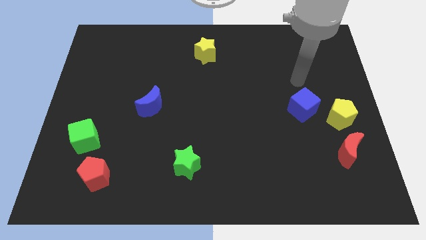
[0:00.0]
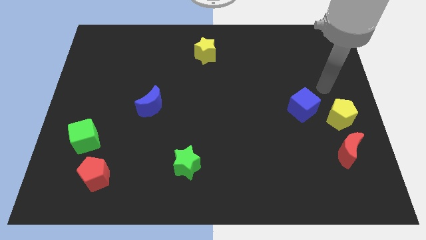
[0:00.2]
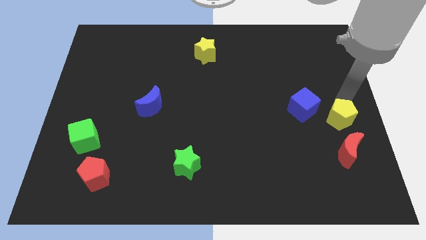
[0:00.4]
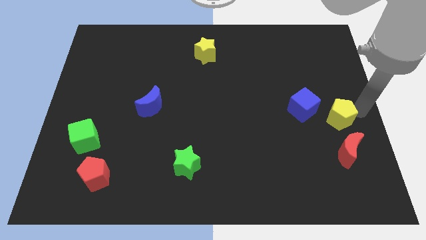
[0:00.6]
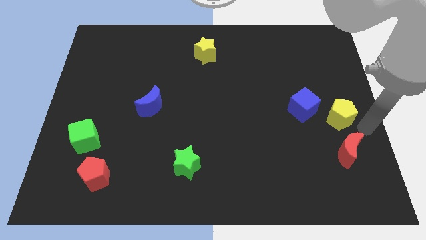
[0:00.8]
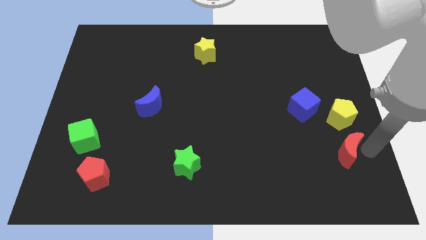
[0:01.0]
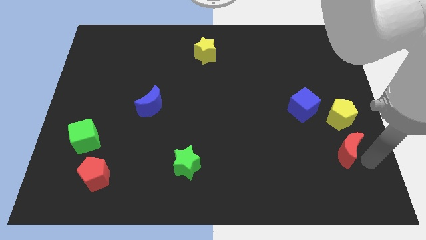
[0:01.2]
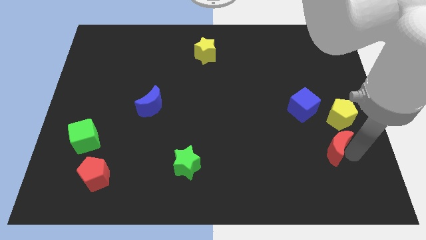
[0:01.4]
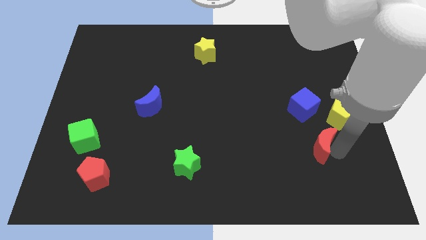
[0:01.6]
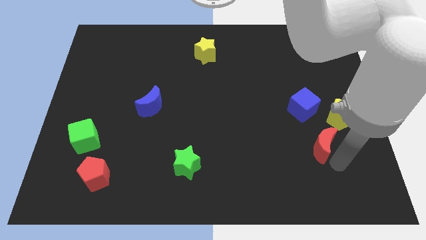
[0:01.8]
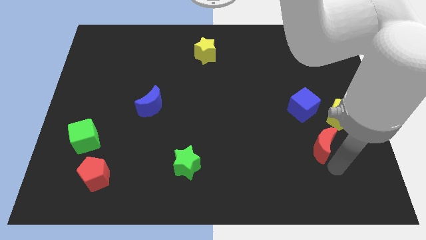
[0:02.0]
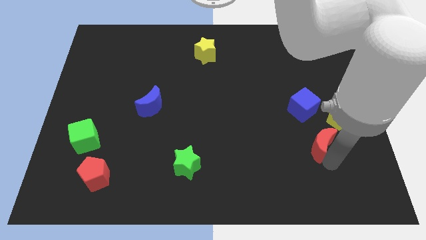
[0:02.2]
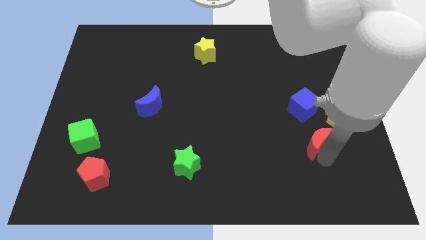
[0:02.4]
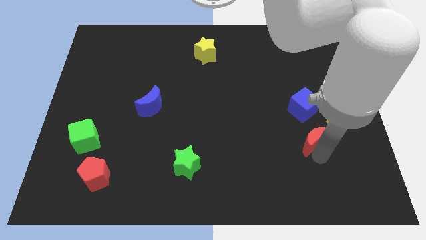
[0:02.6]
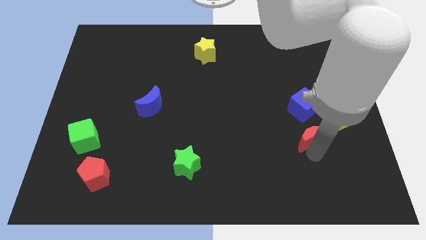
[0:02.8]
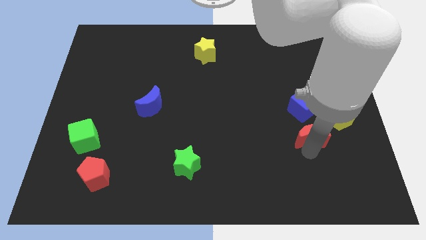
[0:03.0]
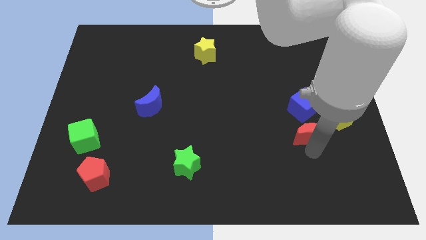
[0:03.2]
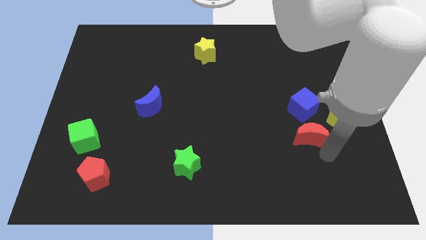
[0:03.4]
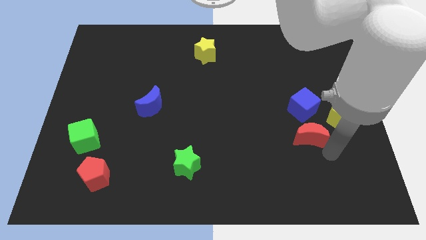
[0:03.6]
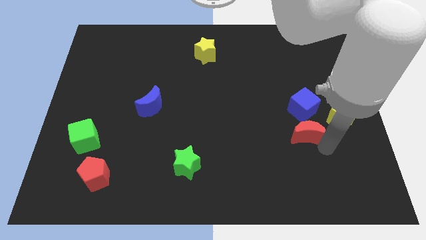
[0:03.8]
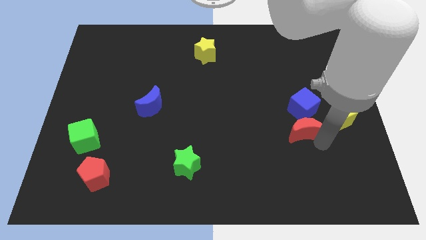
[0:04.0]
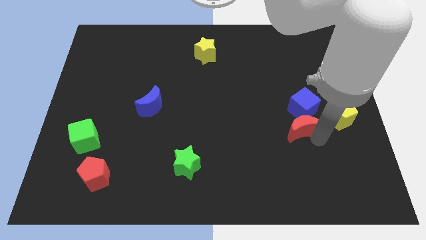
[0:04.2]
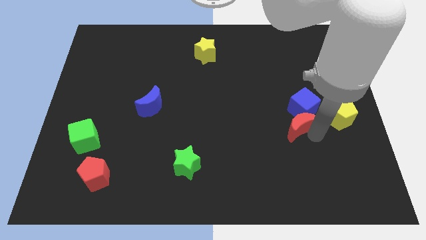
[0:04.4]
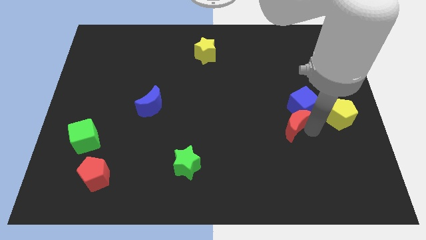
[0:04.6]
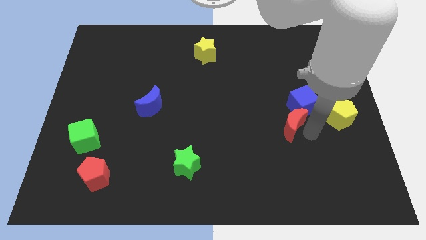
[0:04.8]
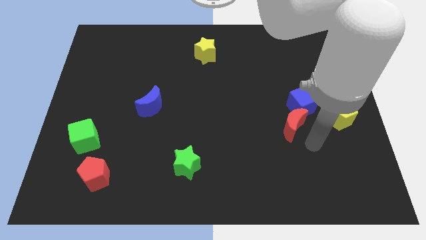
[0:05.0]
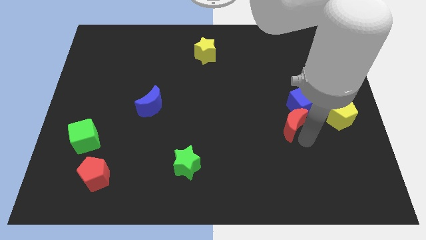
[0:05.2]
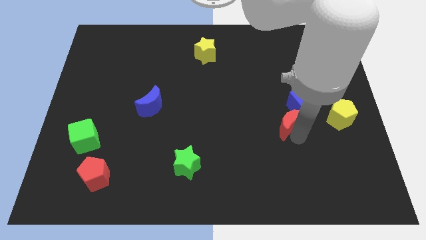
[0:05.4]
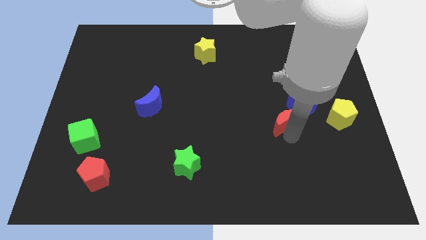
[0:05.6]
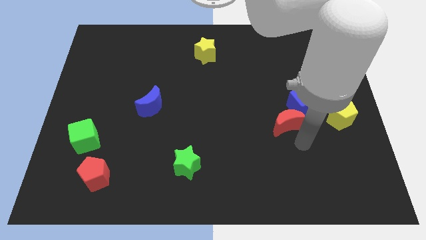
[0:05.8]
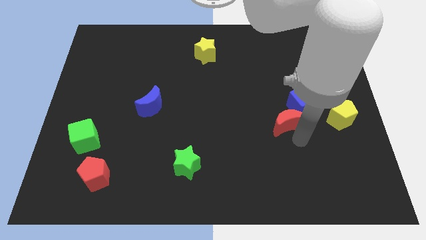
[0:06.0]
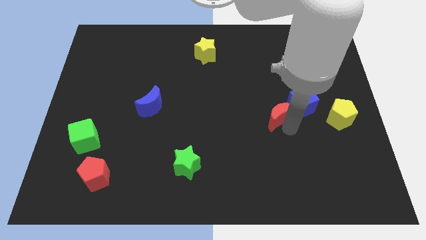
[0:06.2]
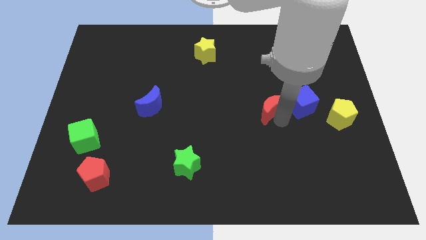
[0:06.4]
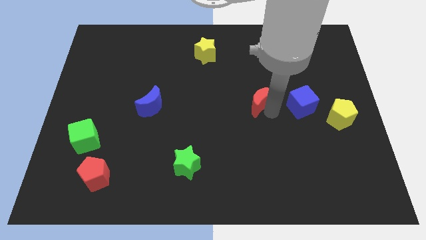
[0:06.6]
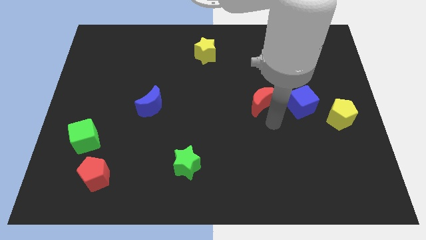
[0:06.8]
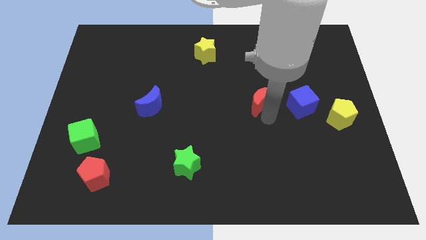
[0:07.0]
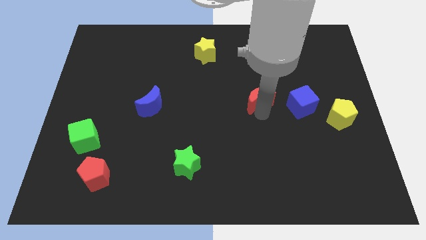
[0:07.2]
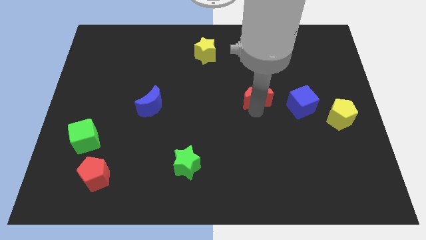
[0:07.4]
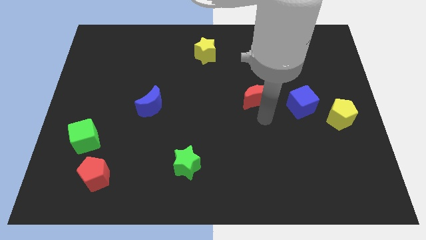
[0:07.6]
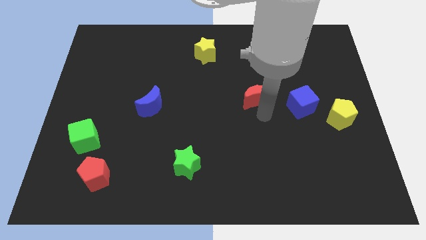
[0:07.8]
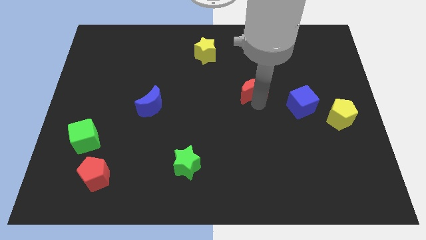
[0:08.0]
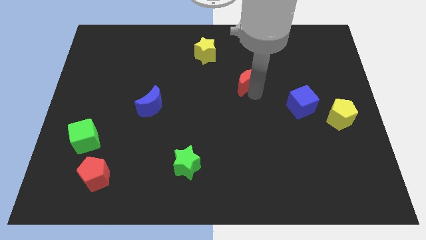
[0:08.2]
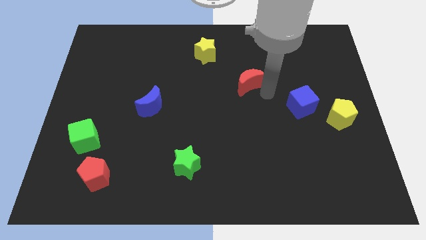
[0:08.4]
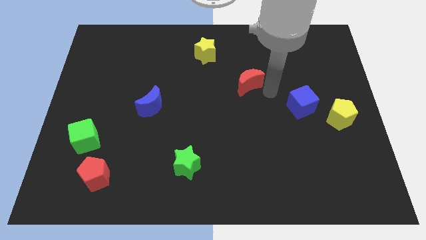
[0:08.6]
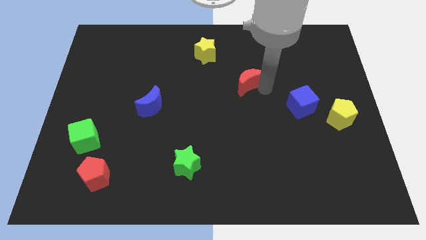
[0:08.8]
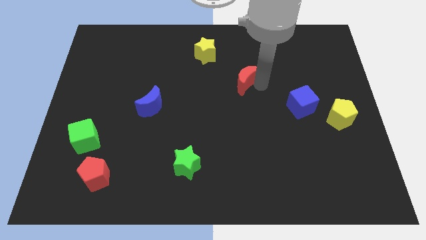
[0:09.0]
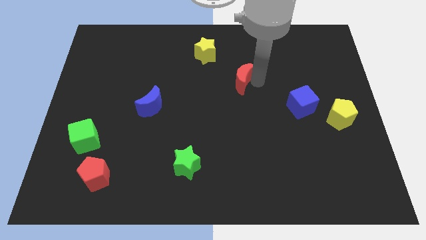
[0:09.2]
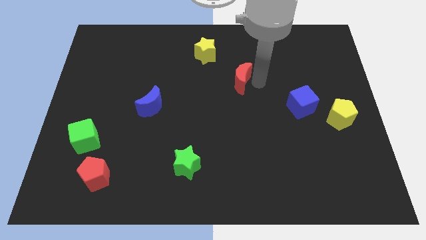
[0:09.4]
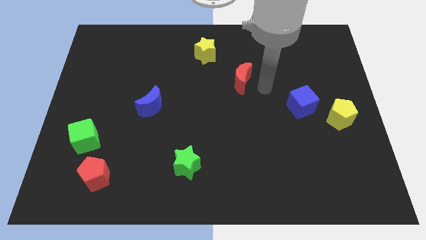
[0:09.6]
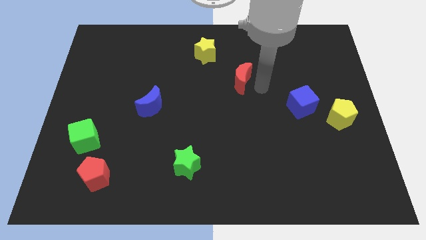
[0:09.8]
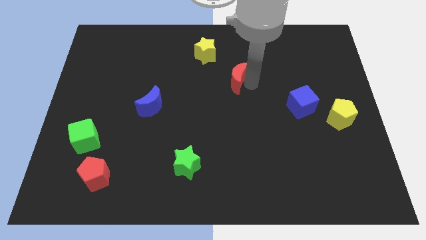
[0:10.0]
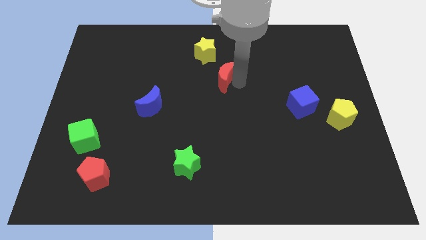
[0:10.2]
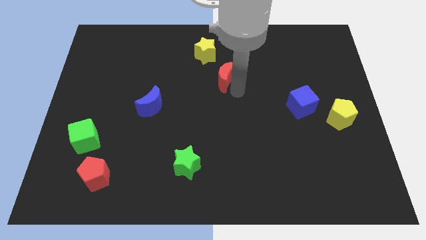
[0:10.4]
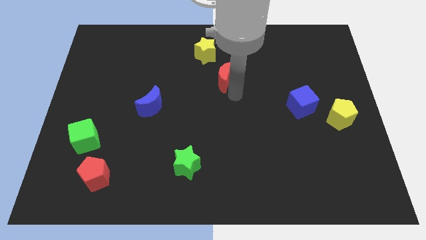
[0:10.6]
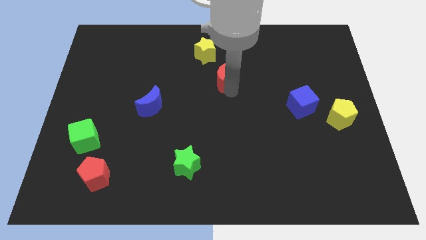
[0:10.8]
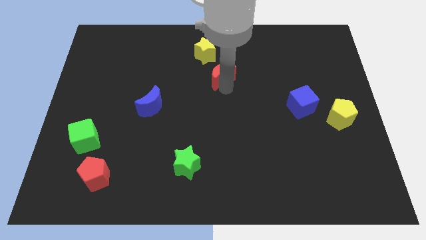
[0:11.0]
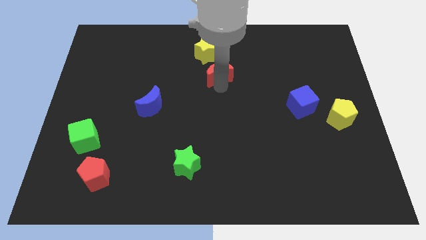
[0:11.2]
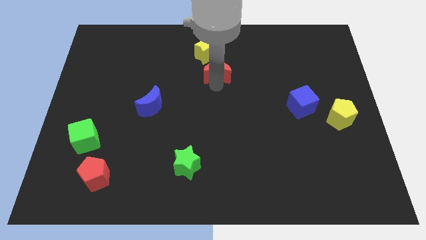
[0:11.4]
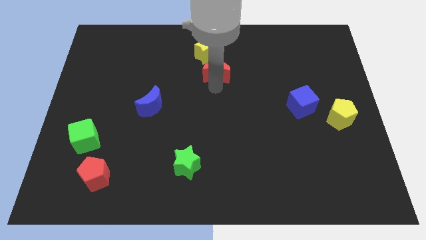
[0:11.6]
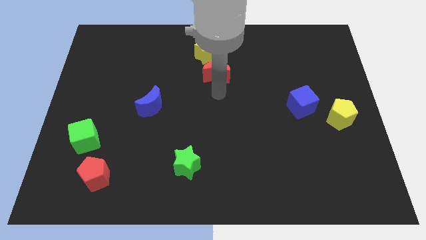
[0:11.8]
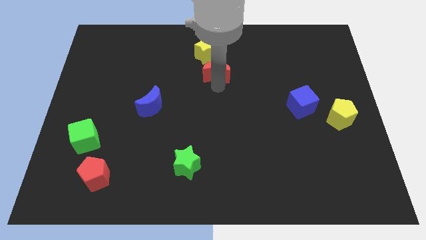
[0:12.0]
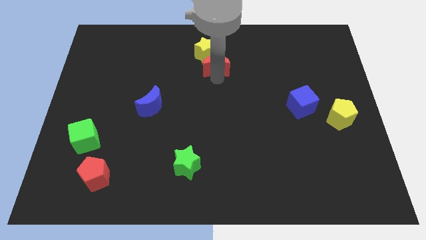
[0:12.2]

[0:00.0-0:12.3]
slide the red moon close to the yellow star

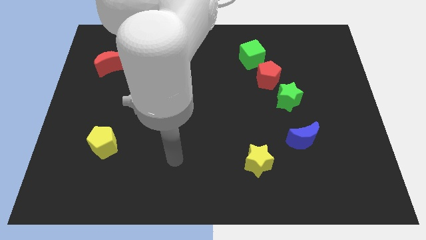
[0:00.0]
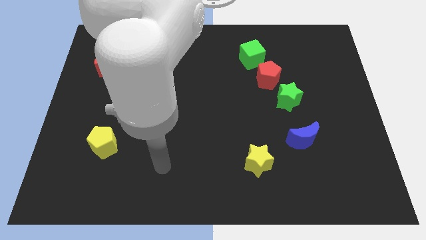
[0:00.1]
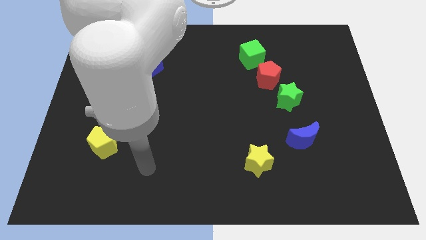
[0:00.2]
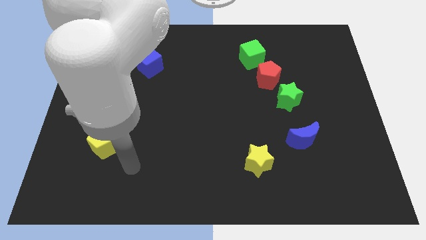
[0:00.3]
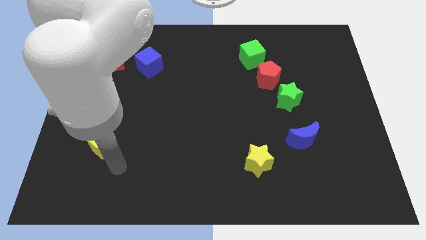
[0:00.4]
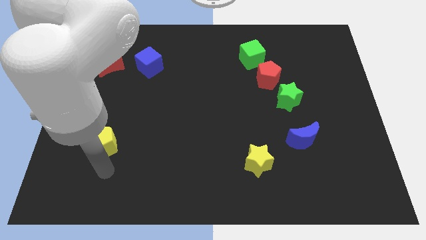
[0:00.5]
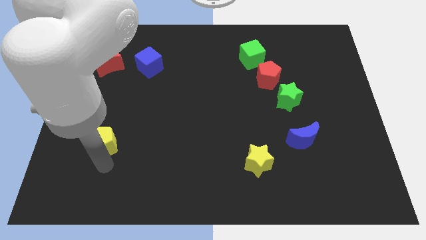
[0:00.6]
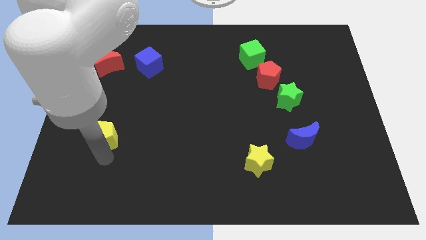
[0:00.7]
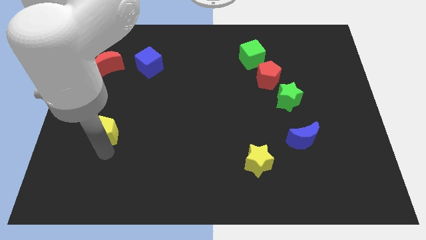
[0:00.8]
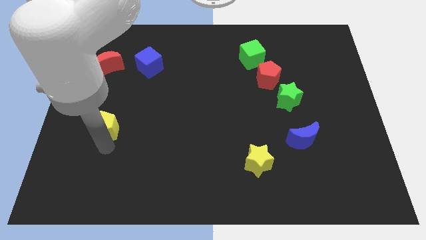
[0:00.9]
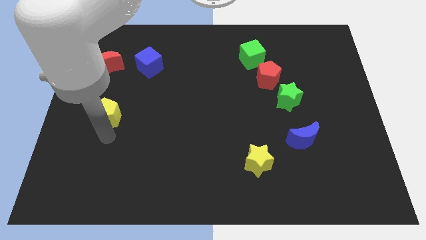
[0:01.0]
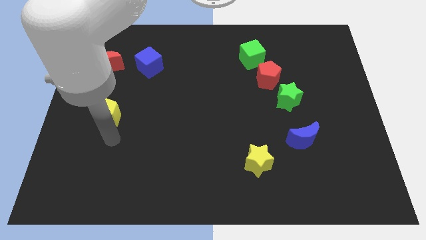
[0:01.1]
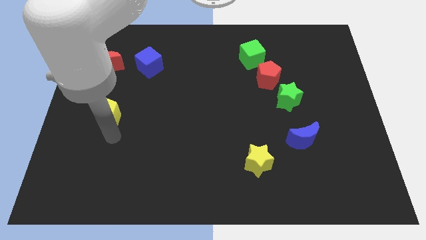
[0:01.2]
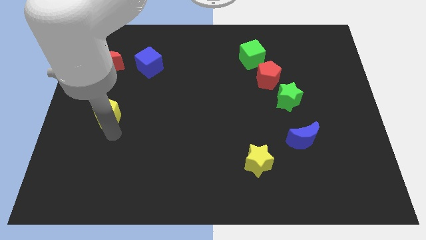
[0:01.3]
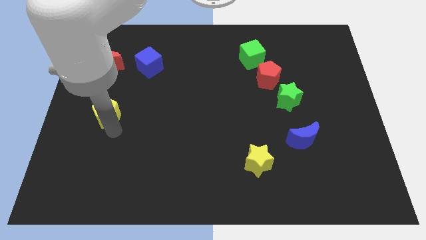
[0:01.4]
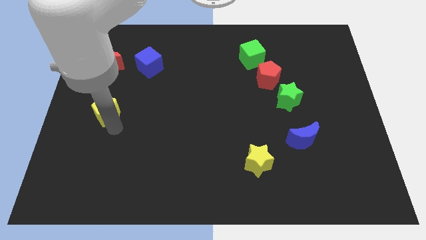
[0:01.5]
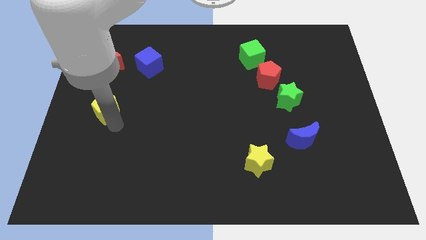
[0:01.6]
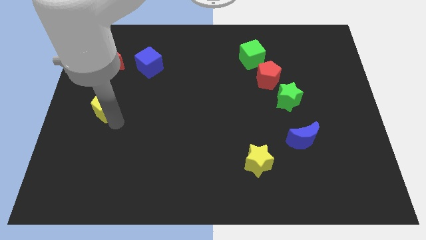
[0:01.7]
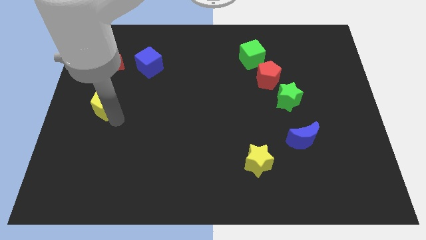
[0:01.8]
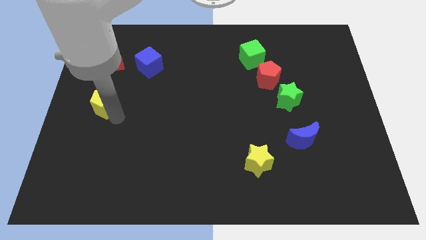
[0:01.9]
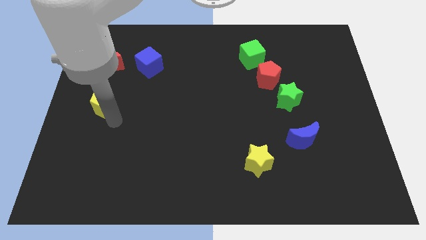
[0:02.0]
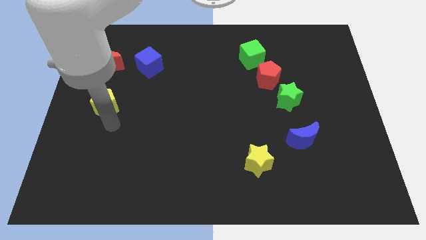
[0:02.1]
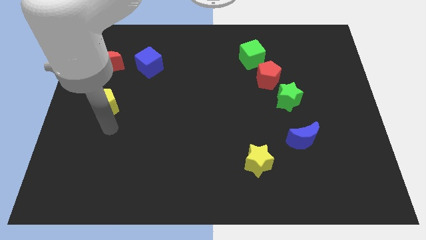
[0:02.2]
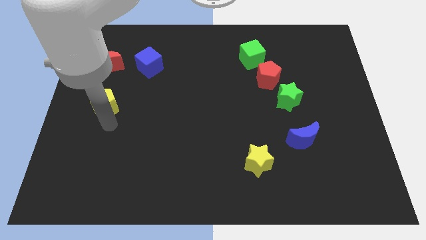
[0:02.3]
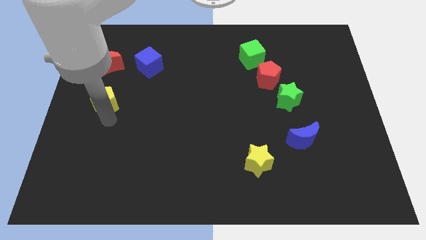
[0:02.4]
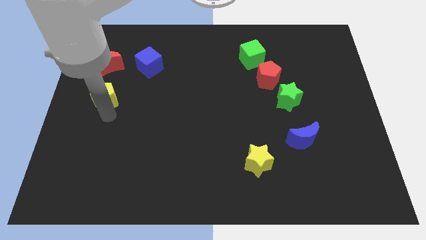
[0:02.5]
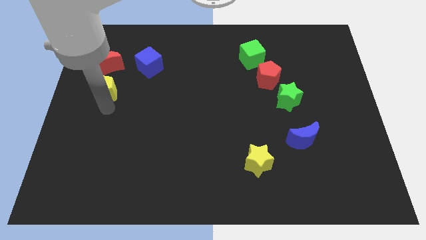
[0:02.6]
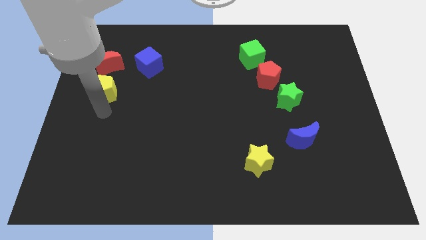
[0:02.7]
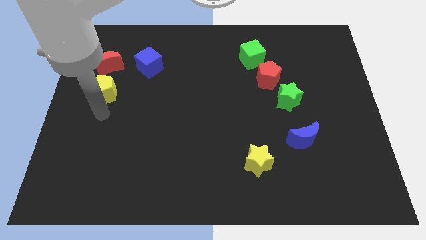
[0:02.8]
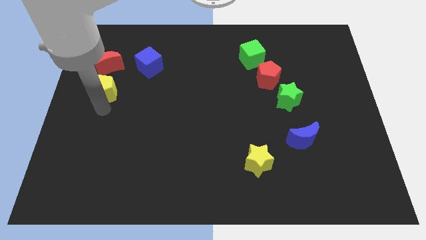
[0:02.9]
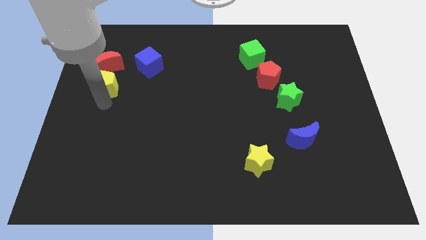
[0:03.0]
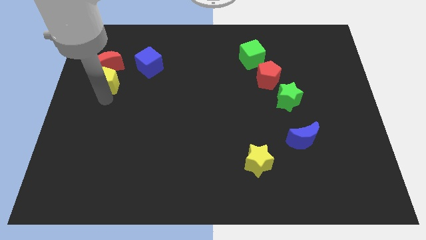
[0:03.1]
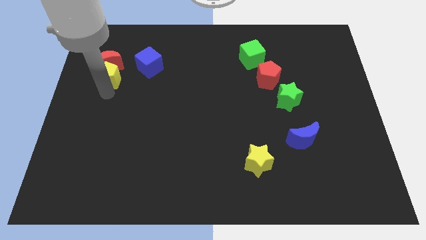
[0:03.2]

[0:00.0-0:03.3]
slide the yellow pentagon next to the red moon
